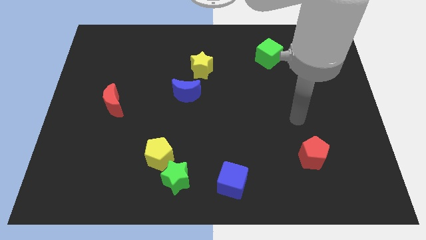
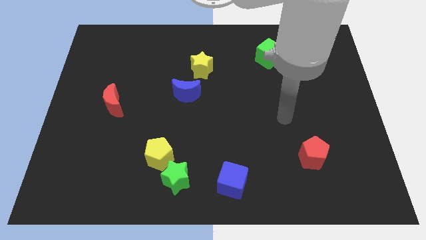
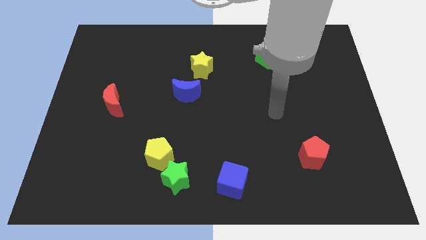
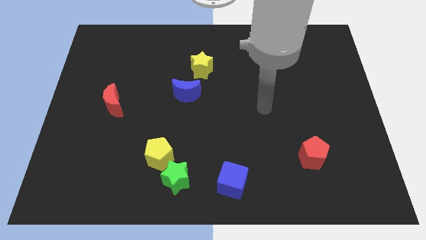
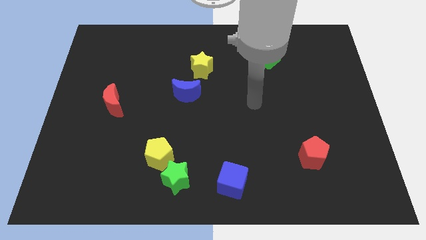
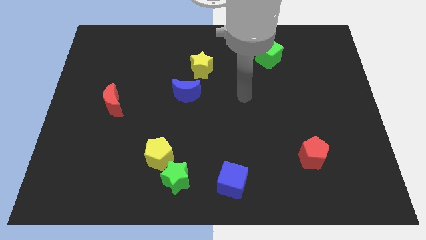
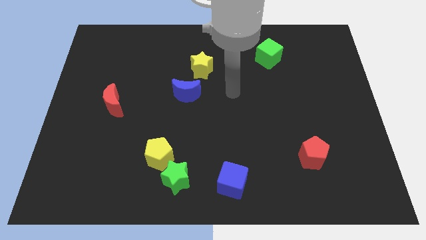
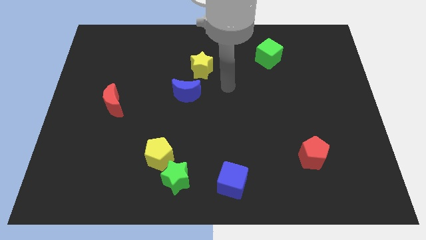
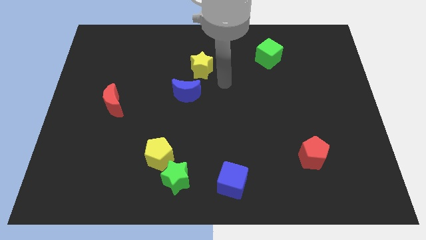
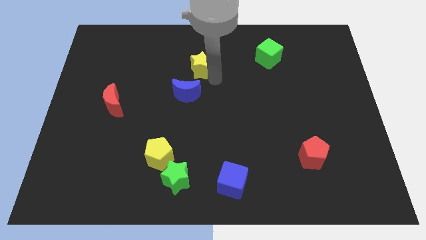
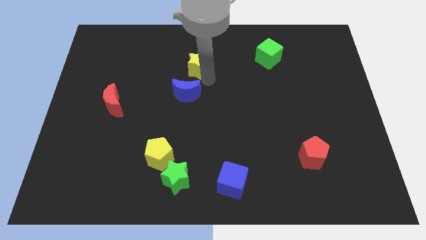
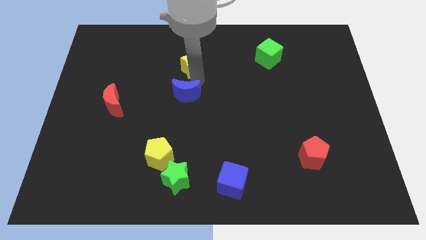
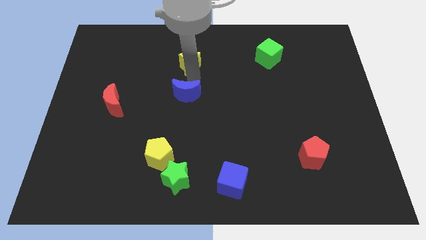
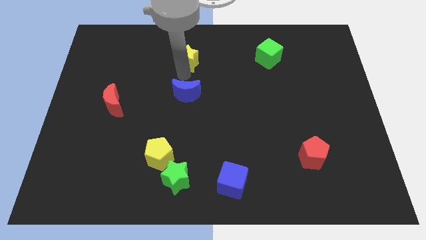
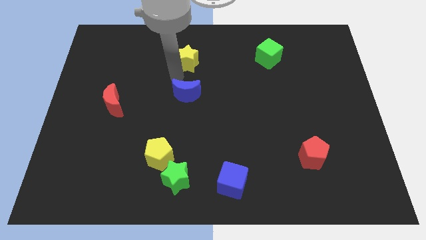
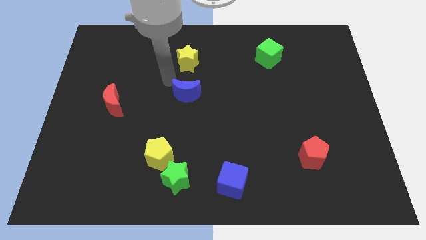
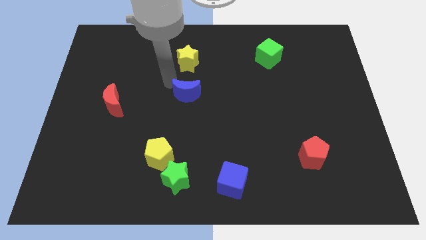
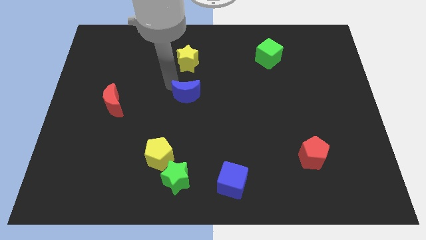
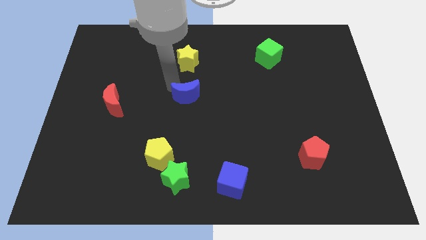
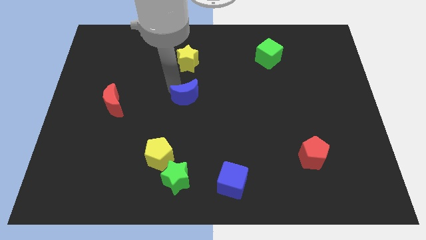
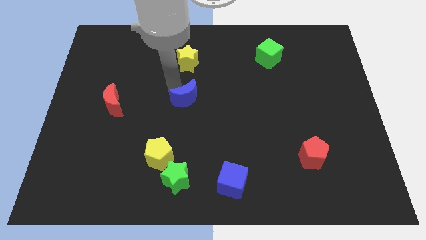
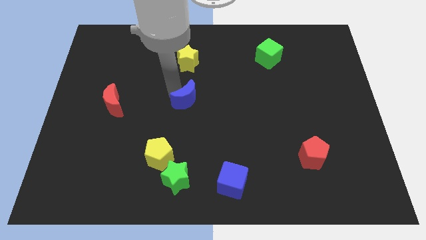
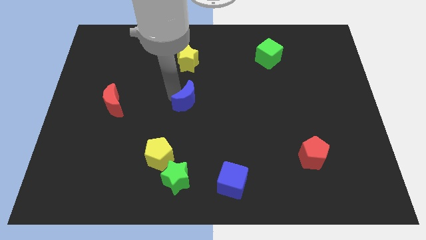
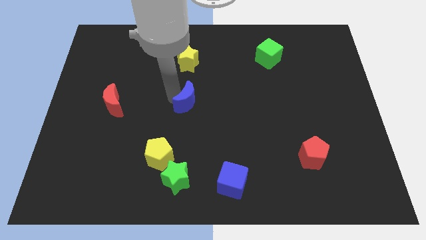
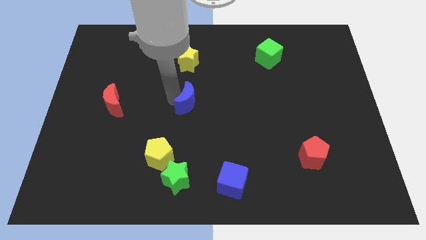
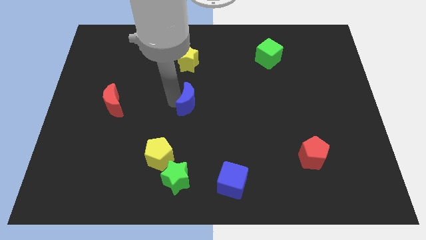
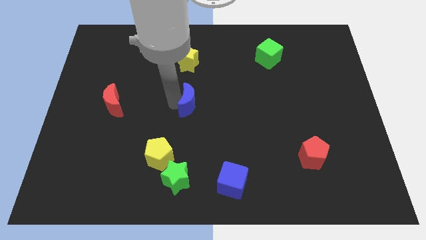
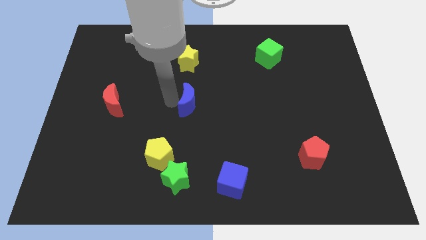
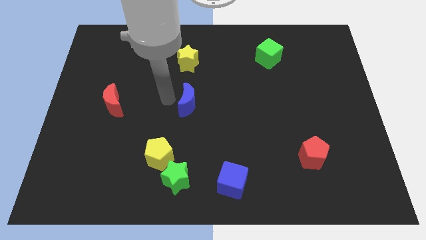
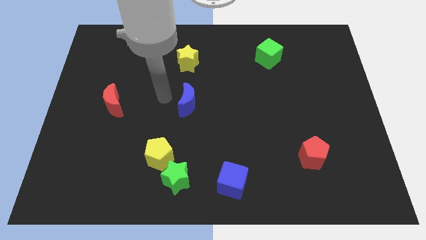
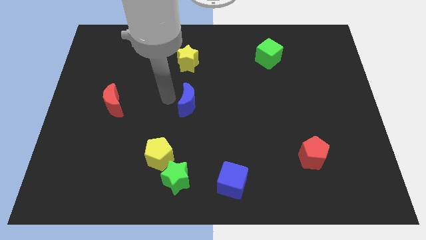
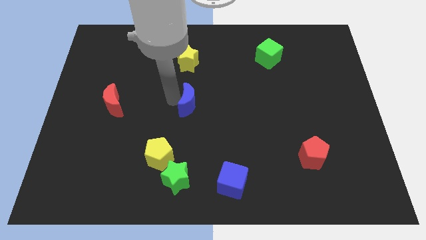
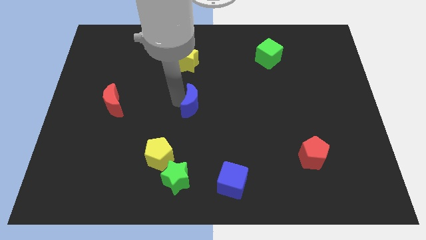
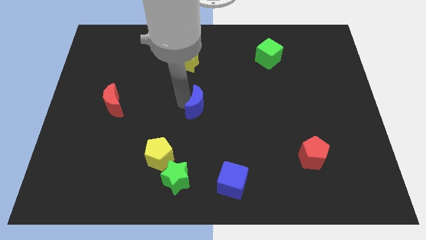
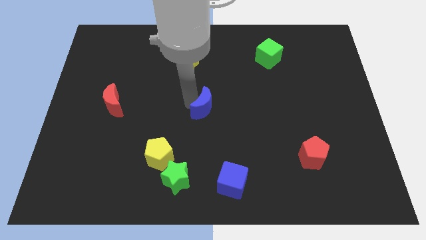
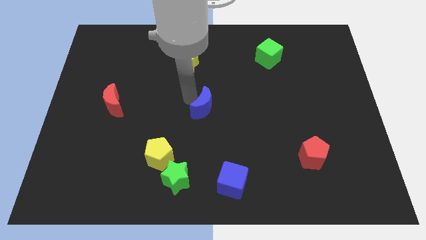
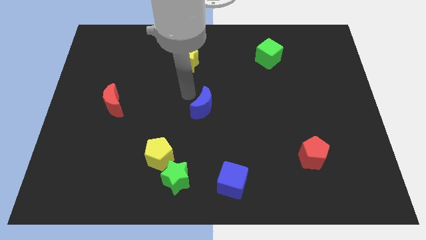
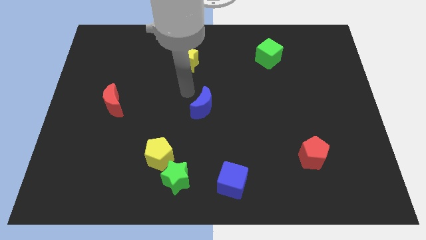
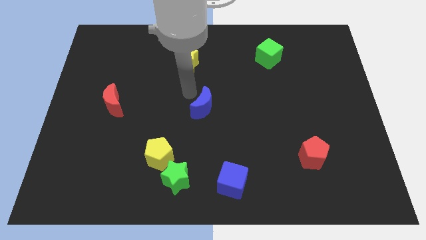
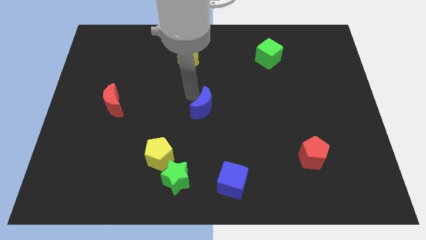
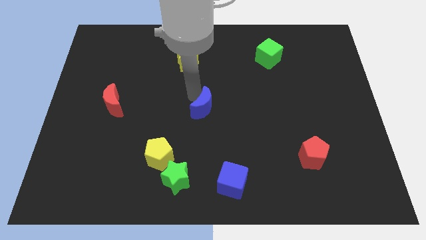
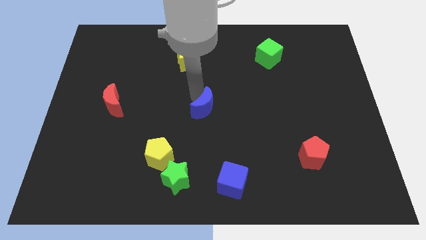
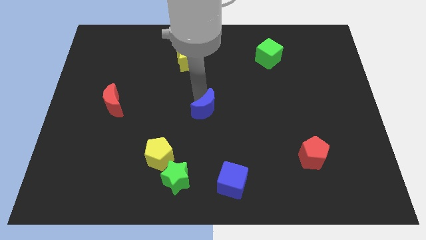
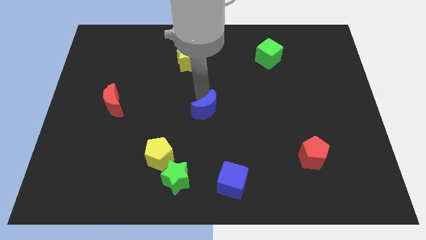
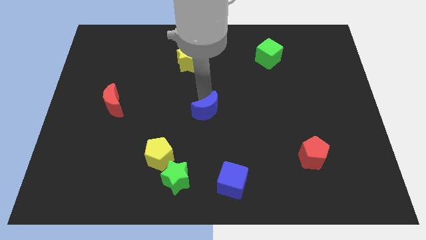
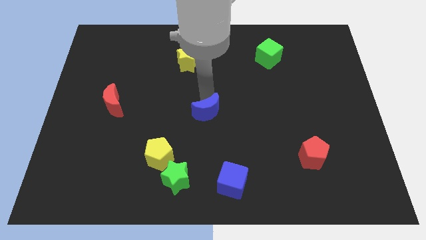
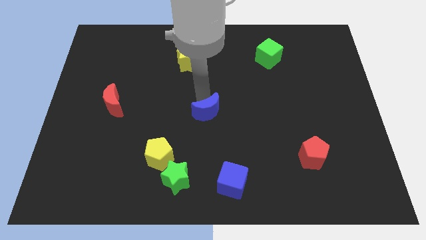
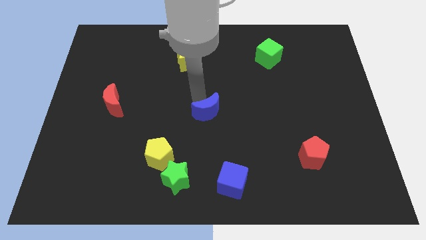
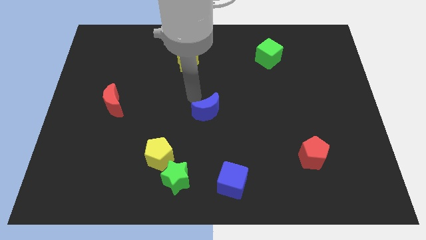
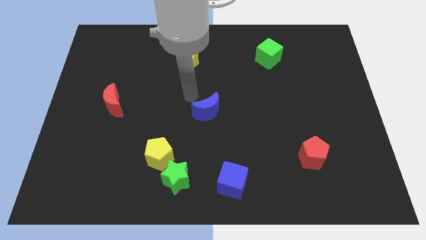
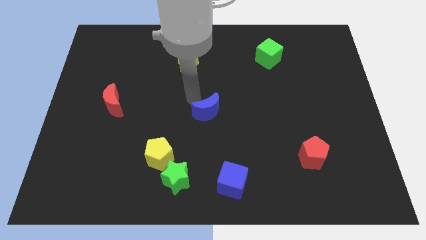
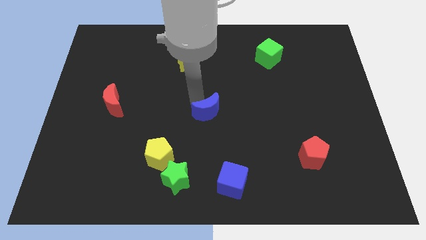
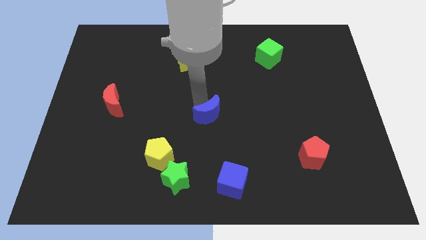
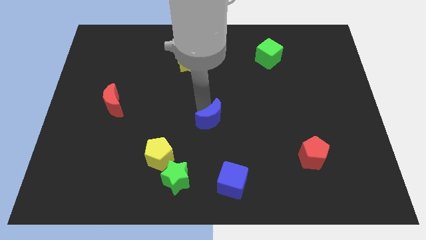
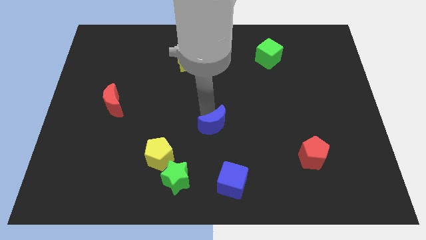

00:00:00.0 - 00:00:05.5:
put the blue moon to the top of the blue cube

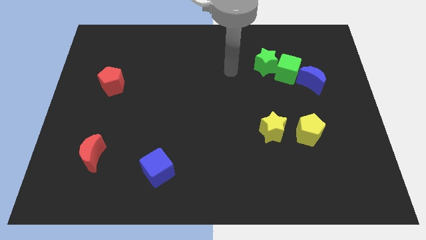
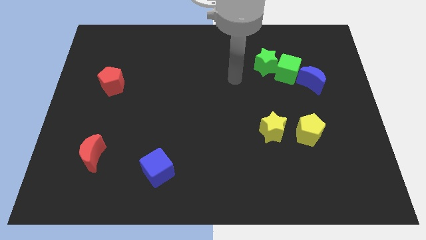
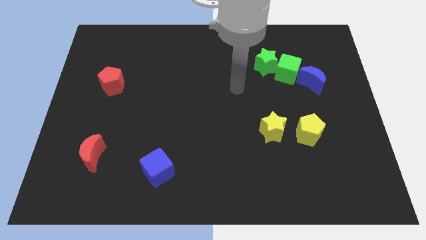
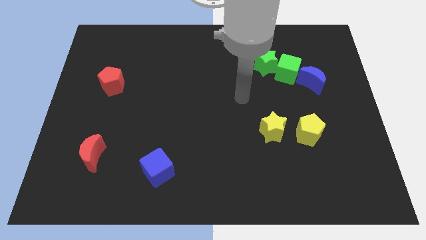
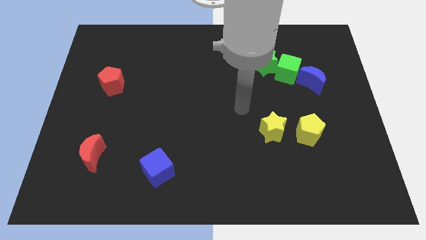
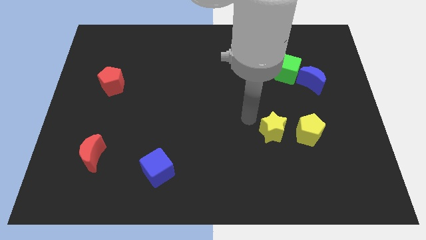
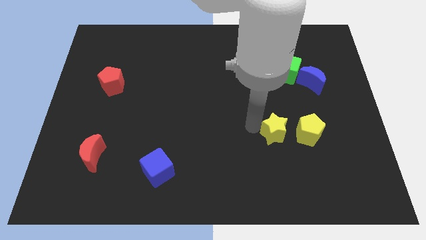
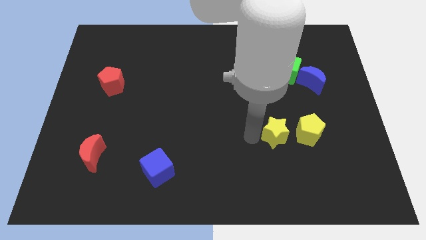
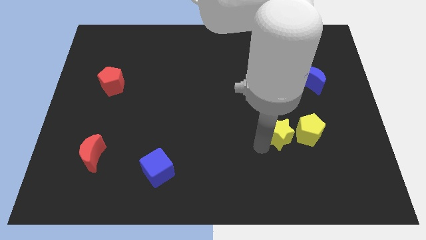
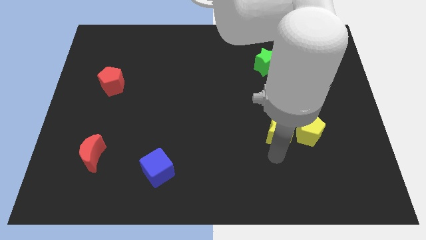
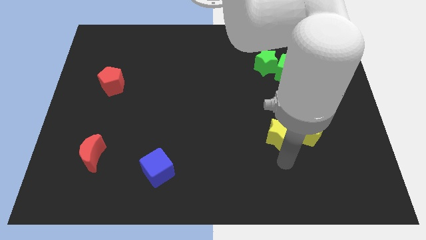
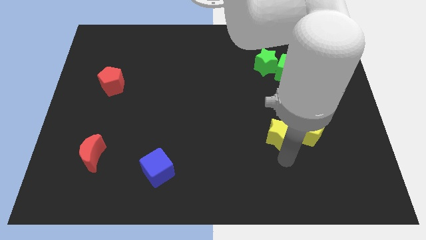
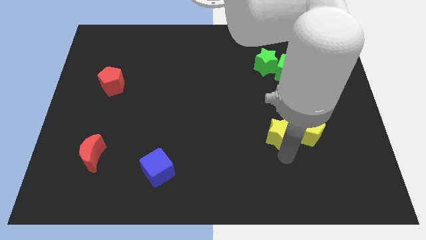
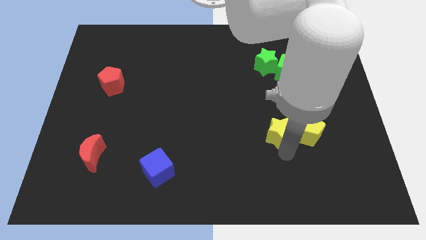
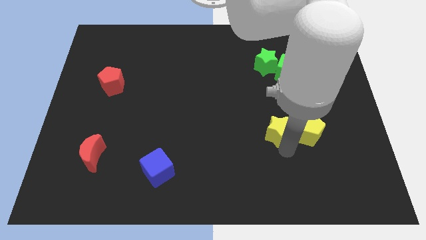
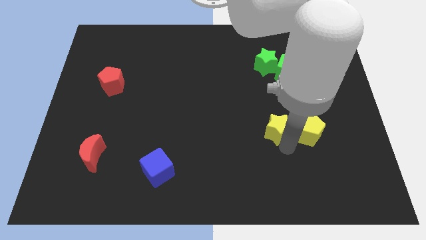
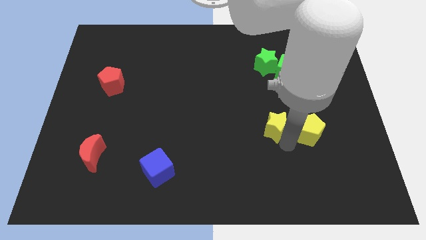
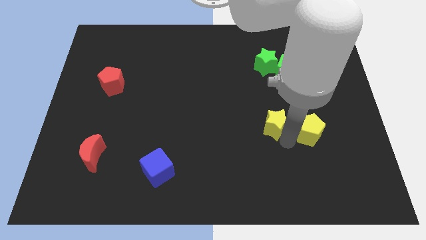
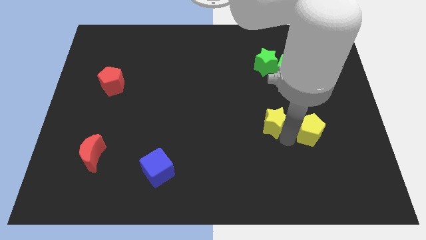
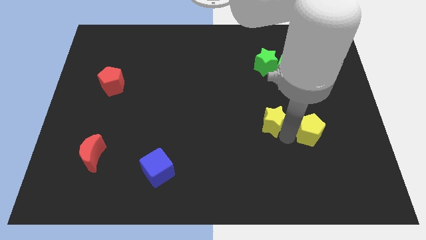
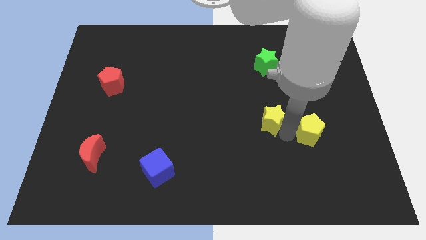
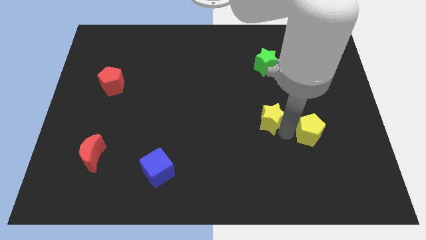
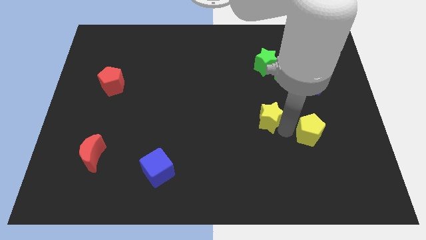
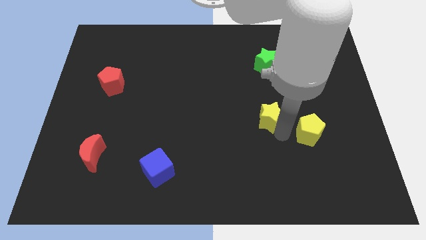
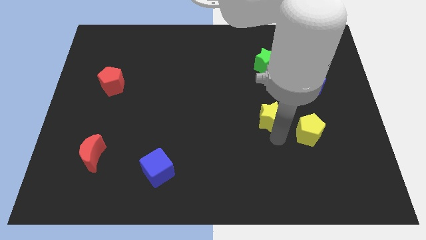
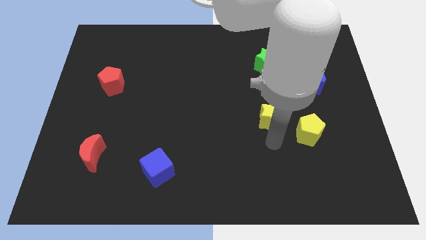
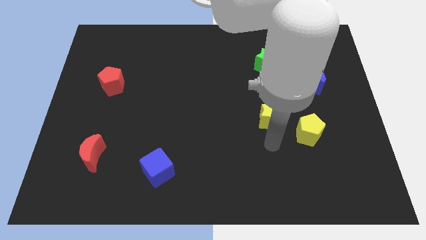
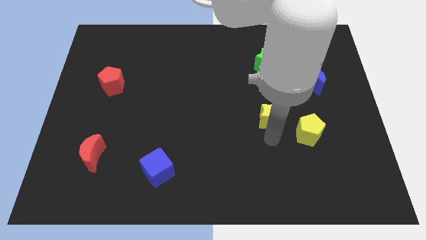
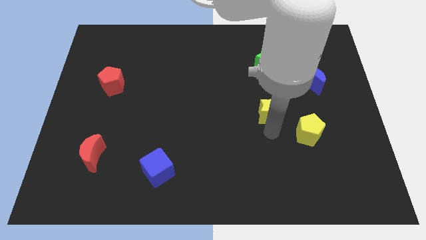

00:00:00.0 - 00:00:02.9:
put the yellow star to the bottom of the green star
